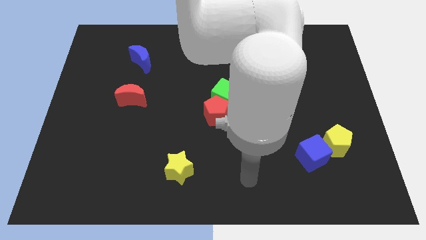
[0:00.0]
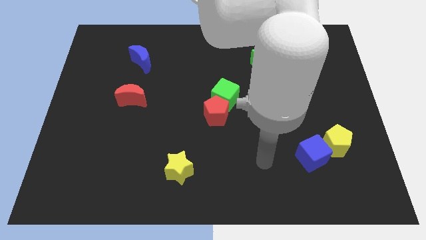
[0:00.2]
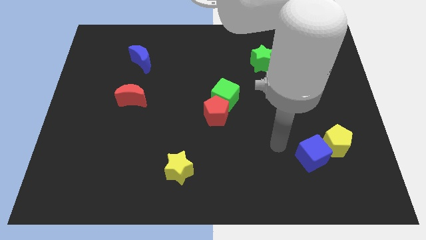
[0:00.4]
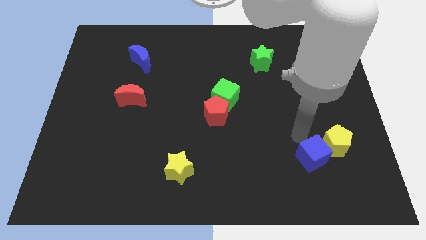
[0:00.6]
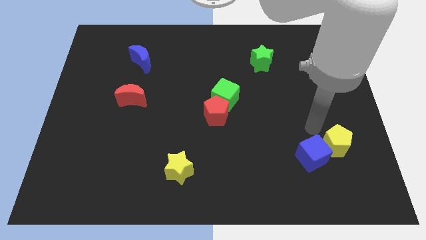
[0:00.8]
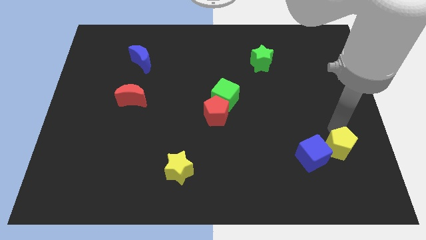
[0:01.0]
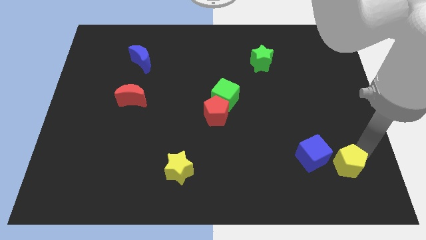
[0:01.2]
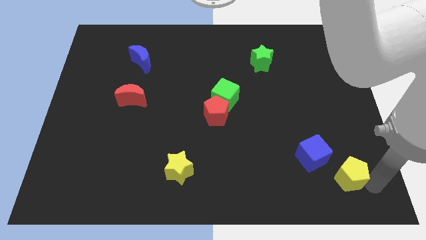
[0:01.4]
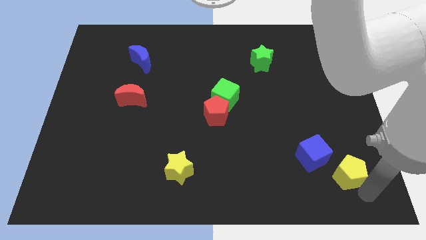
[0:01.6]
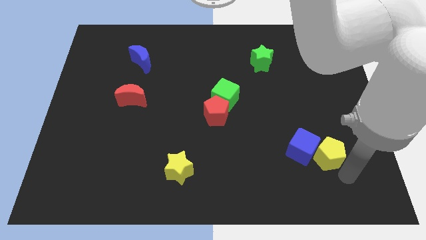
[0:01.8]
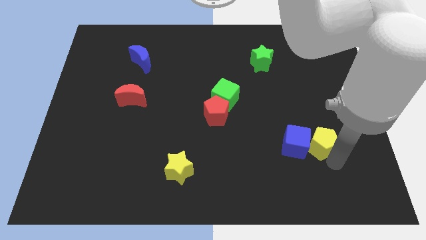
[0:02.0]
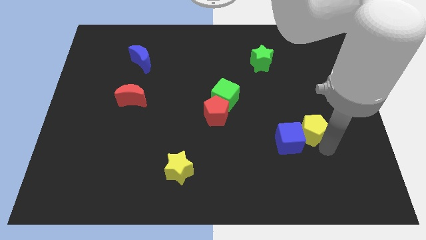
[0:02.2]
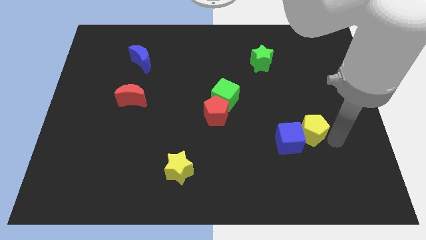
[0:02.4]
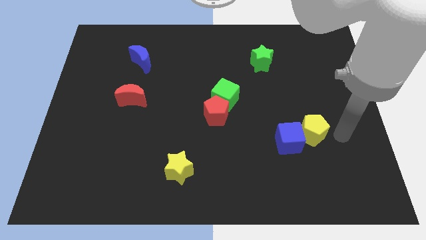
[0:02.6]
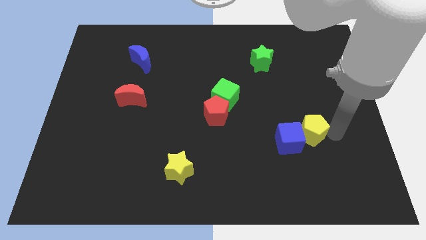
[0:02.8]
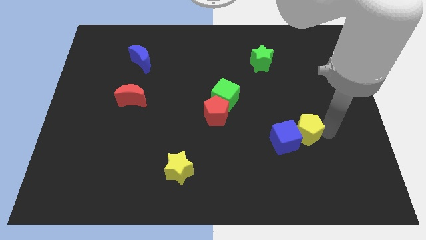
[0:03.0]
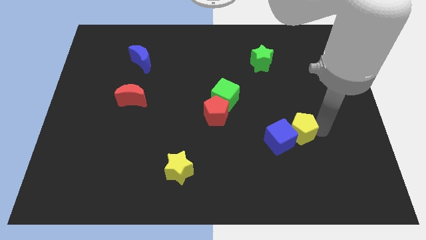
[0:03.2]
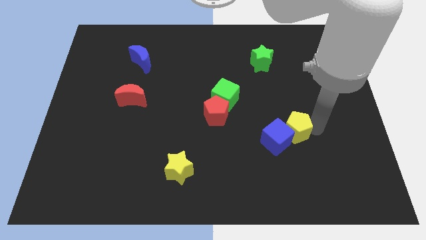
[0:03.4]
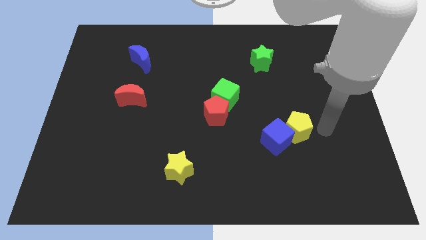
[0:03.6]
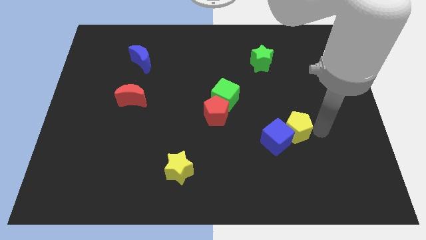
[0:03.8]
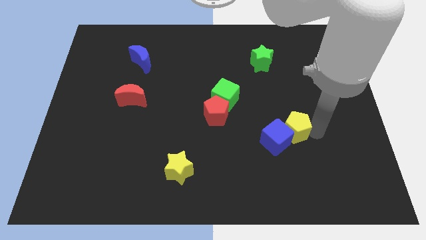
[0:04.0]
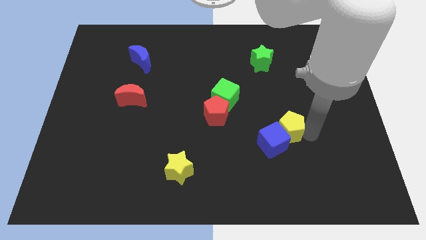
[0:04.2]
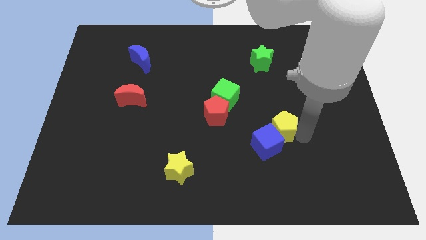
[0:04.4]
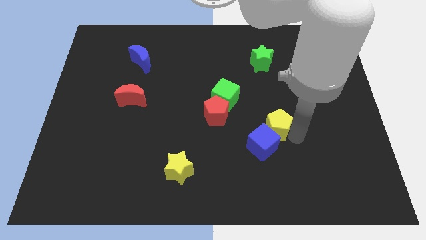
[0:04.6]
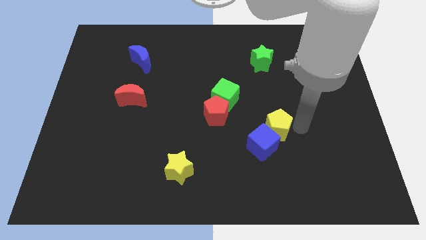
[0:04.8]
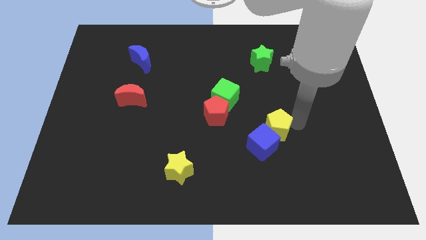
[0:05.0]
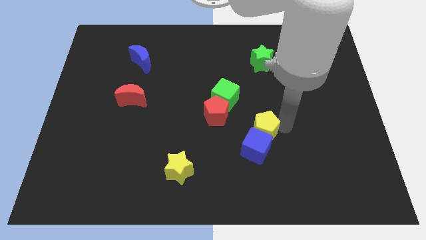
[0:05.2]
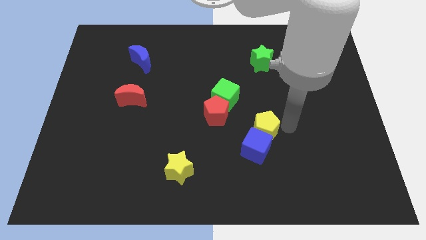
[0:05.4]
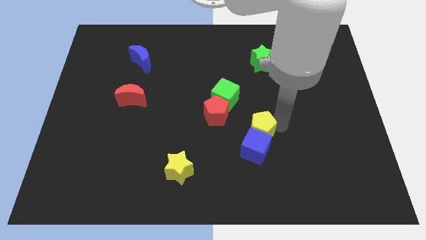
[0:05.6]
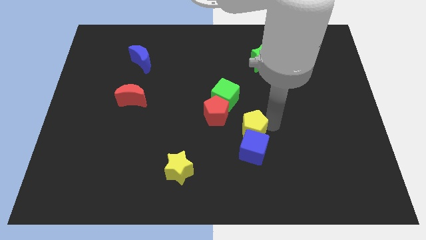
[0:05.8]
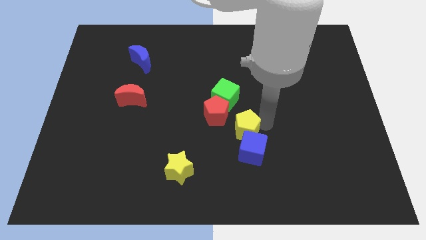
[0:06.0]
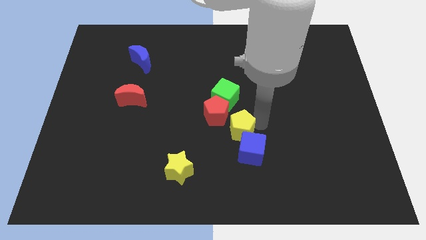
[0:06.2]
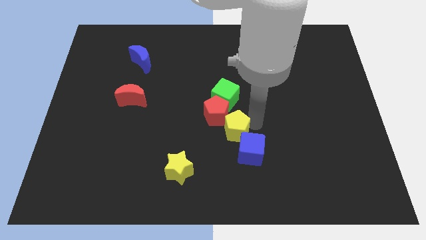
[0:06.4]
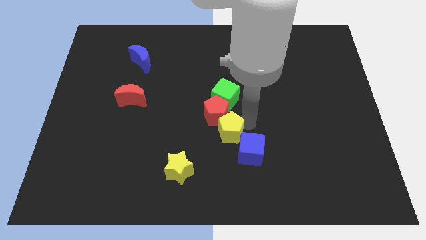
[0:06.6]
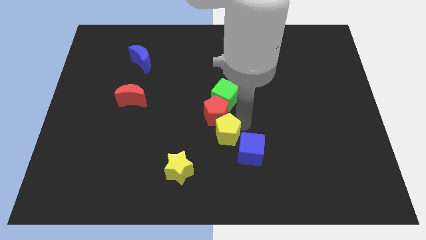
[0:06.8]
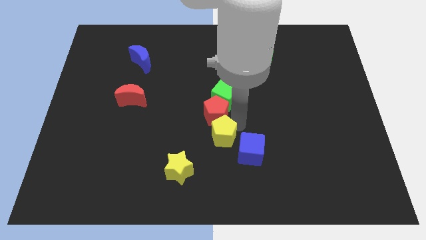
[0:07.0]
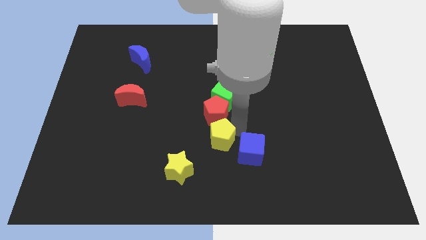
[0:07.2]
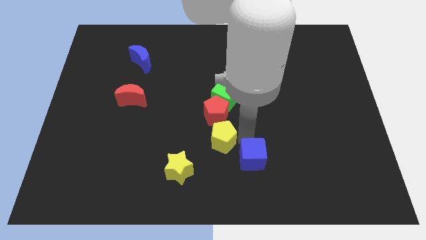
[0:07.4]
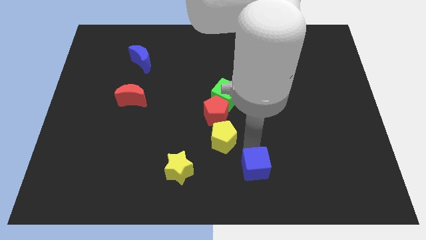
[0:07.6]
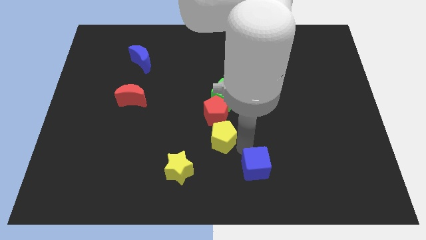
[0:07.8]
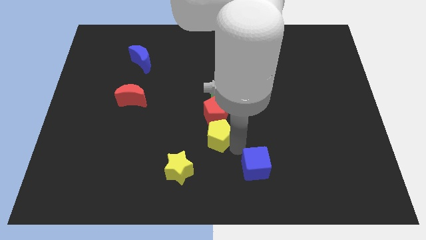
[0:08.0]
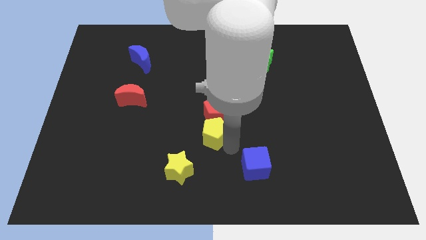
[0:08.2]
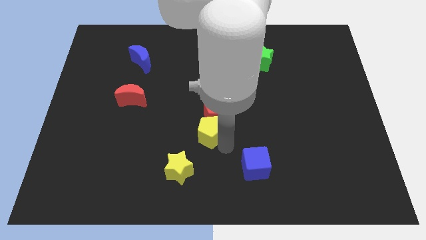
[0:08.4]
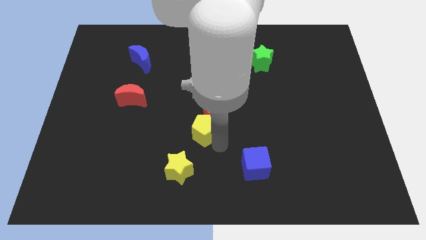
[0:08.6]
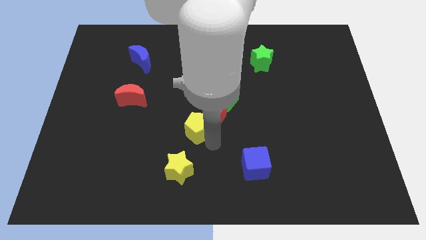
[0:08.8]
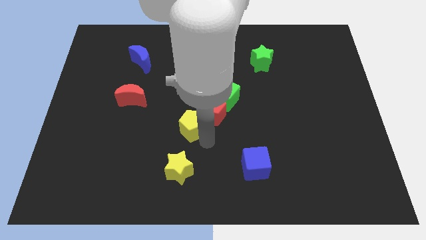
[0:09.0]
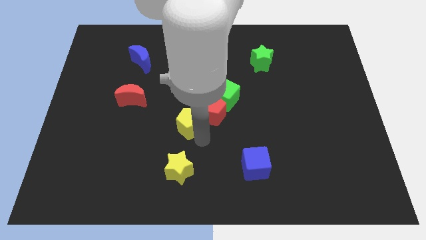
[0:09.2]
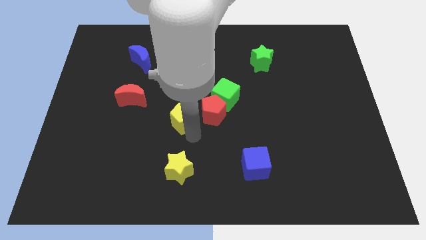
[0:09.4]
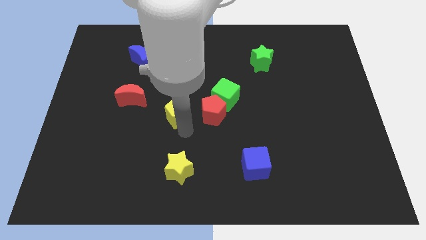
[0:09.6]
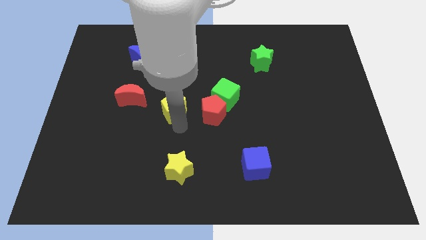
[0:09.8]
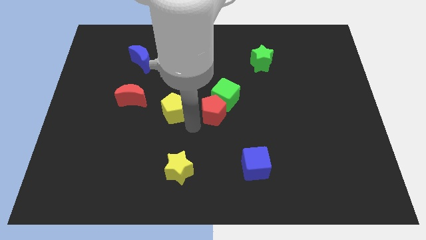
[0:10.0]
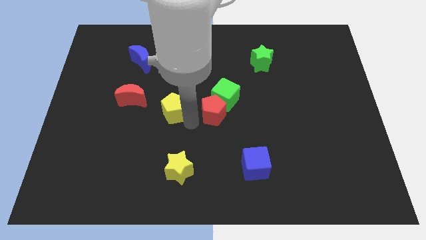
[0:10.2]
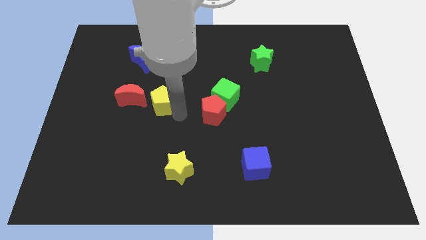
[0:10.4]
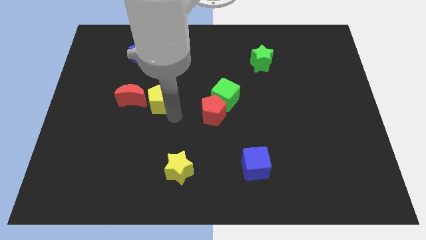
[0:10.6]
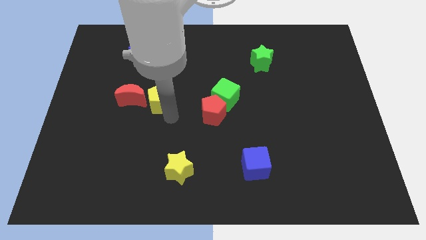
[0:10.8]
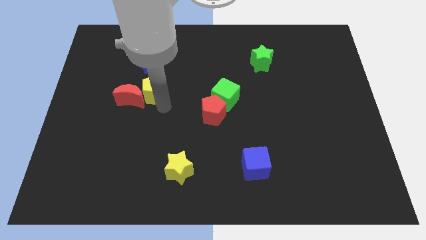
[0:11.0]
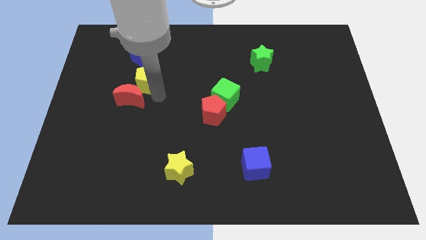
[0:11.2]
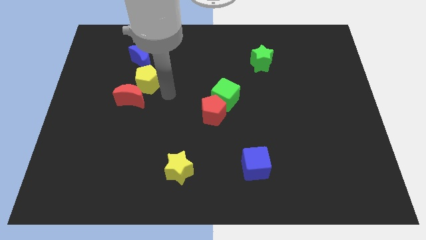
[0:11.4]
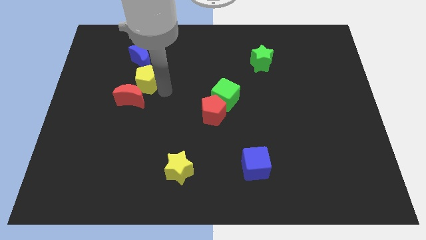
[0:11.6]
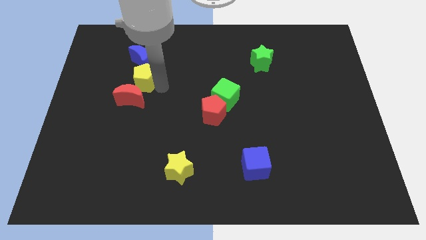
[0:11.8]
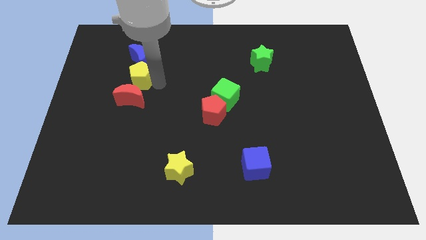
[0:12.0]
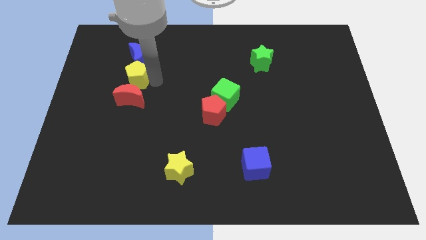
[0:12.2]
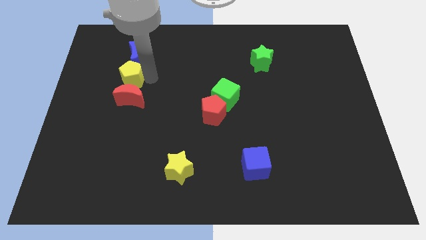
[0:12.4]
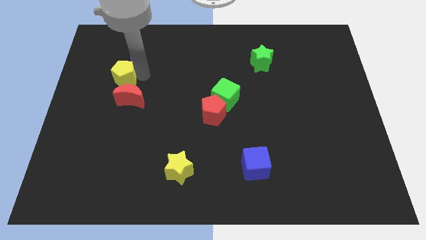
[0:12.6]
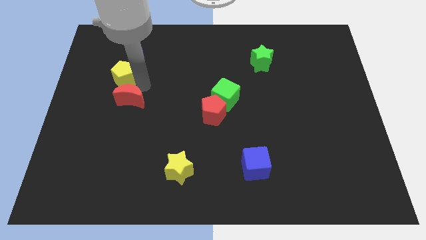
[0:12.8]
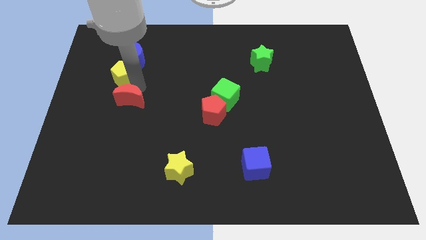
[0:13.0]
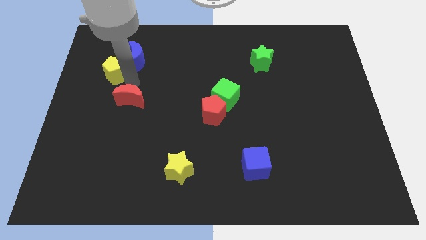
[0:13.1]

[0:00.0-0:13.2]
move the yellow pentagon to the left side of the blue moon

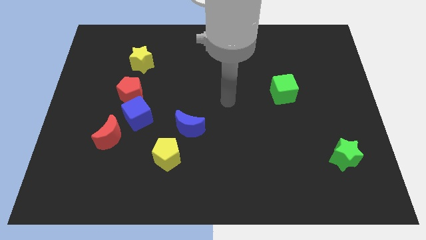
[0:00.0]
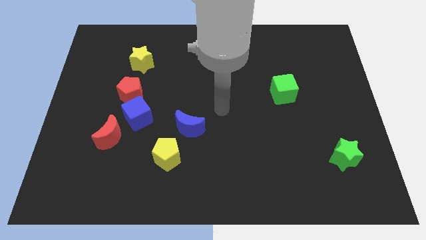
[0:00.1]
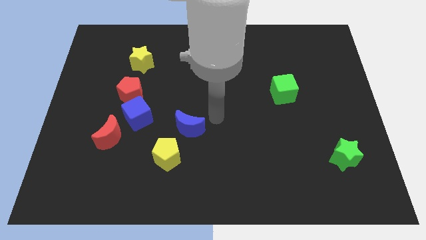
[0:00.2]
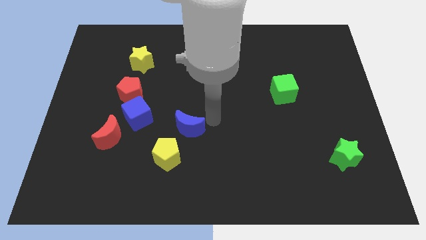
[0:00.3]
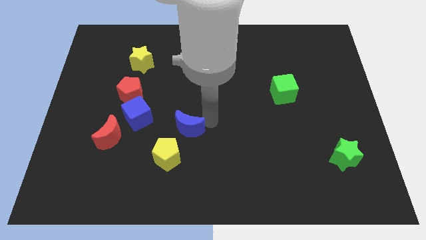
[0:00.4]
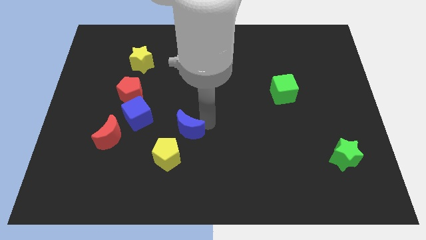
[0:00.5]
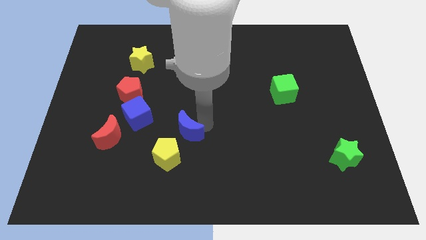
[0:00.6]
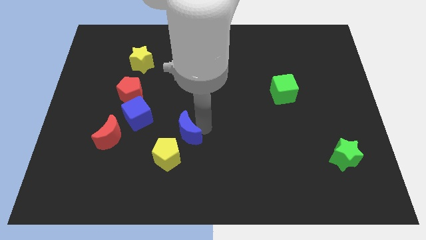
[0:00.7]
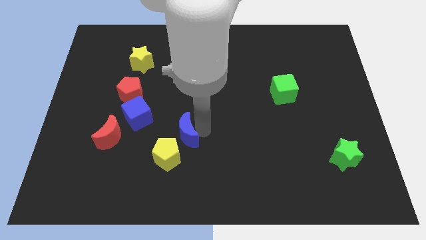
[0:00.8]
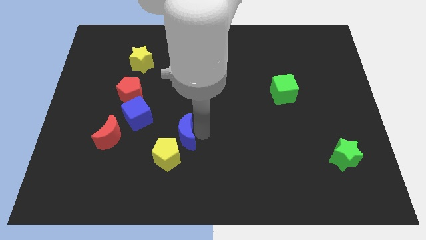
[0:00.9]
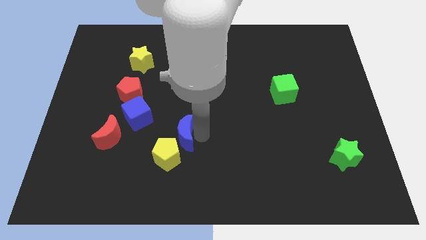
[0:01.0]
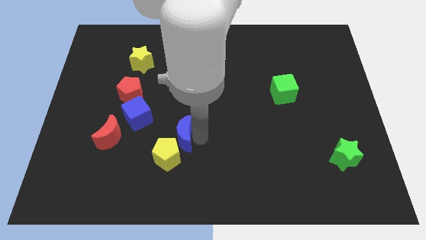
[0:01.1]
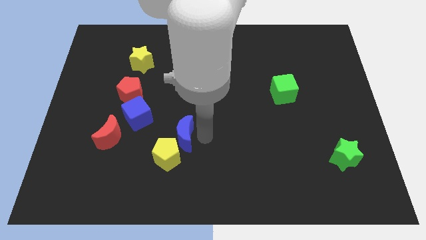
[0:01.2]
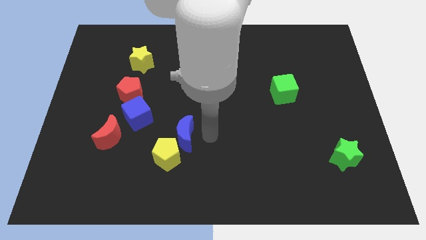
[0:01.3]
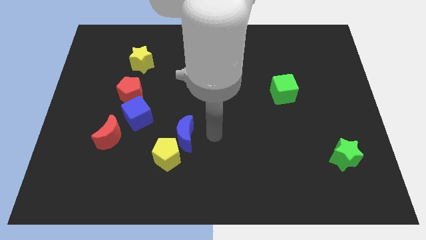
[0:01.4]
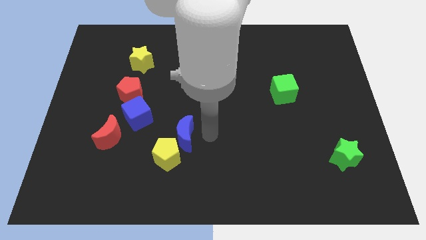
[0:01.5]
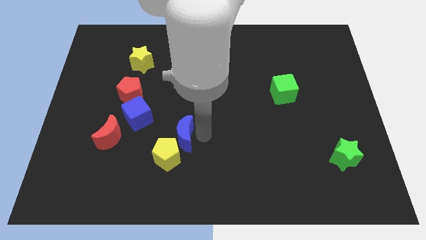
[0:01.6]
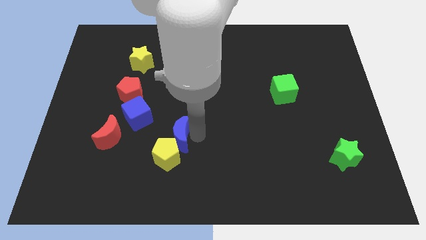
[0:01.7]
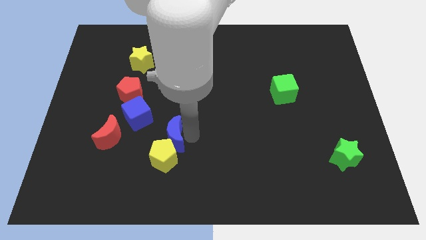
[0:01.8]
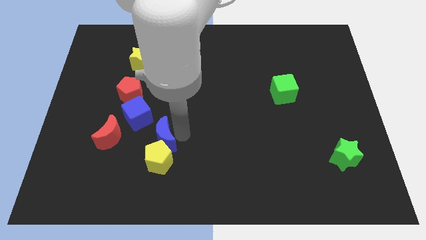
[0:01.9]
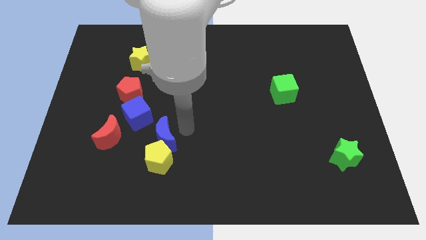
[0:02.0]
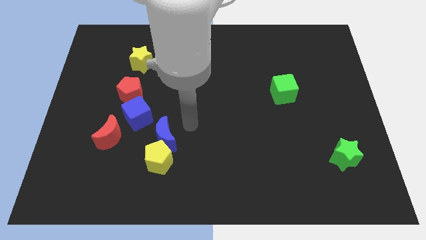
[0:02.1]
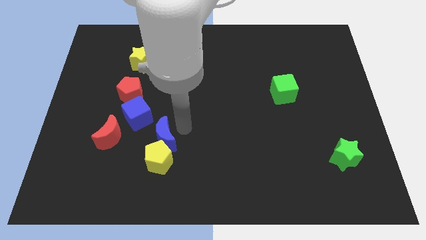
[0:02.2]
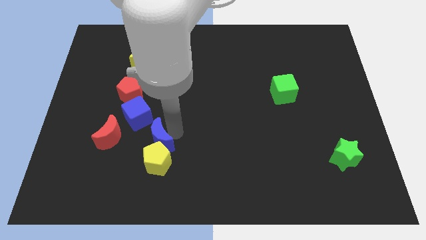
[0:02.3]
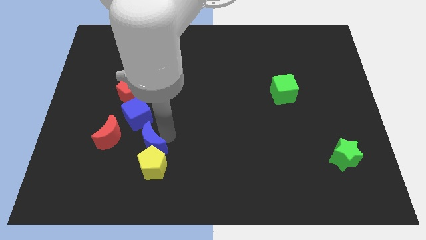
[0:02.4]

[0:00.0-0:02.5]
move the blue moon to the bottom side of the blue cube
